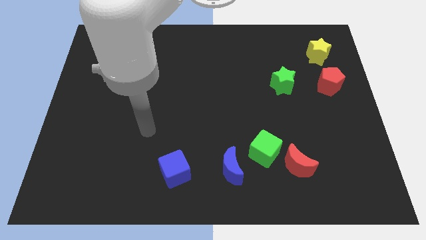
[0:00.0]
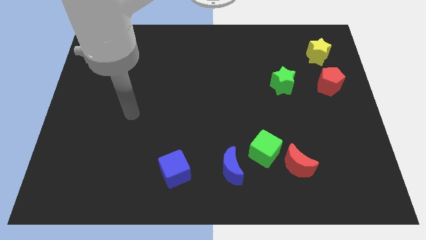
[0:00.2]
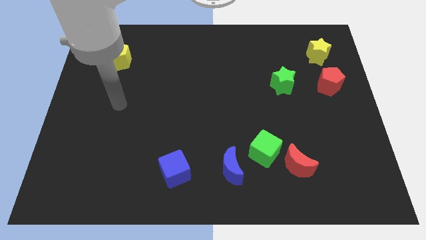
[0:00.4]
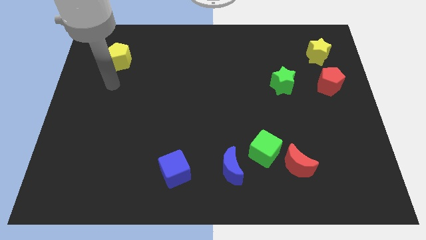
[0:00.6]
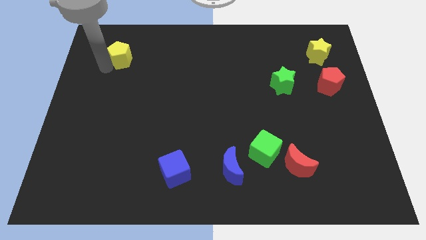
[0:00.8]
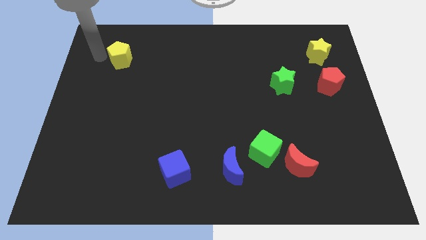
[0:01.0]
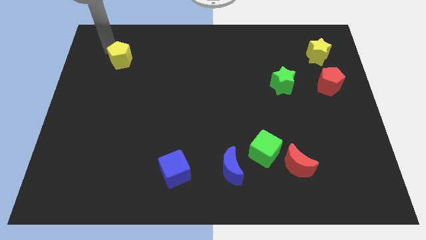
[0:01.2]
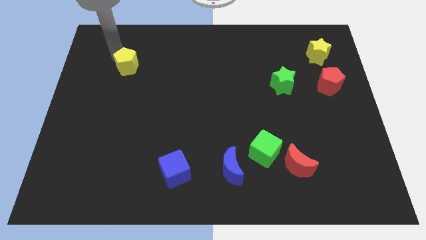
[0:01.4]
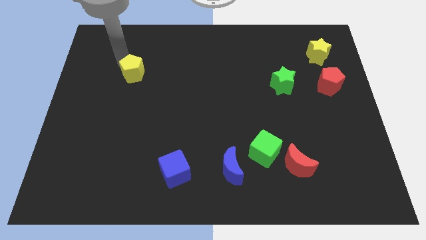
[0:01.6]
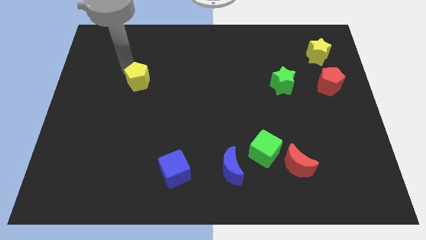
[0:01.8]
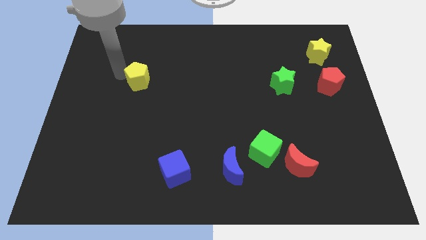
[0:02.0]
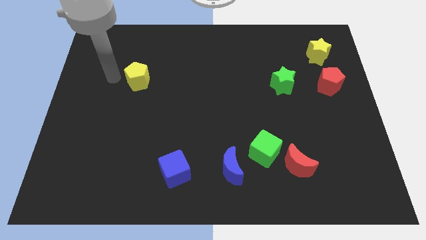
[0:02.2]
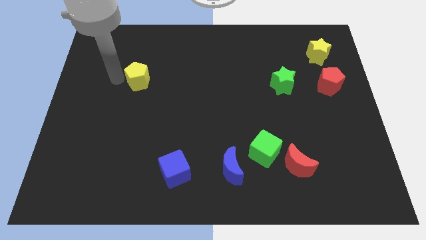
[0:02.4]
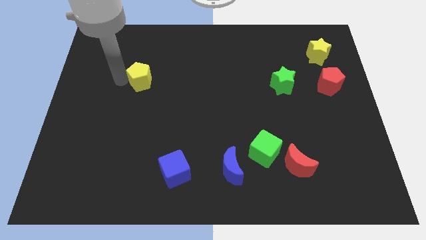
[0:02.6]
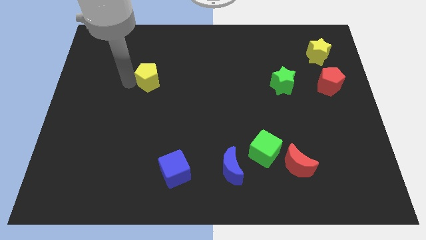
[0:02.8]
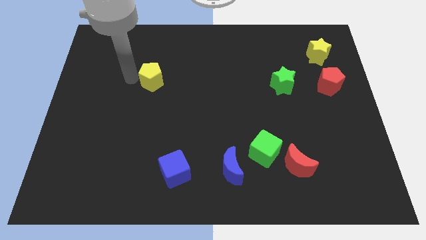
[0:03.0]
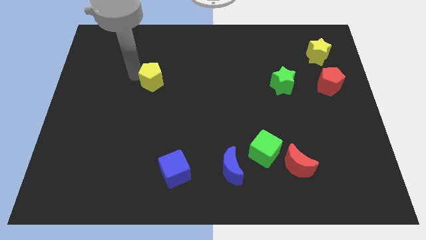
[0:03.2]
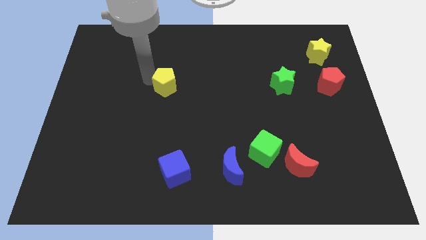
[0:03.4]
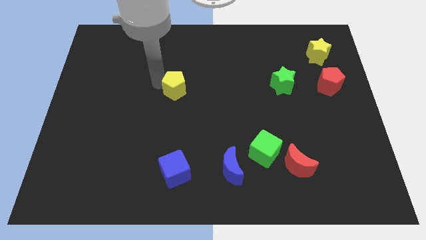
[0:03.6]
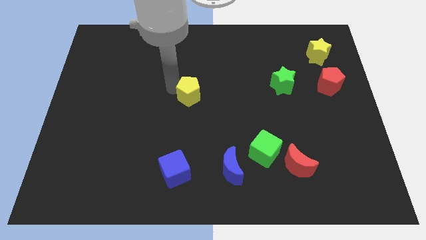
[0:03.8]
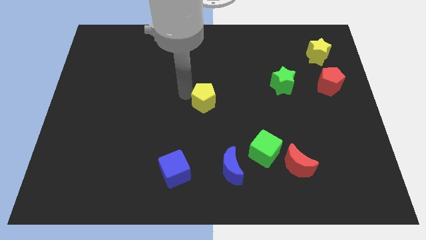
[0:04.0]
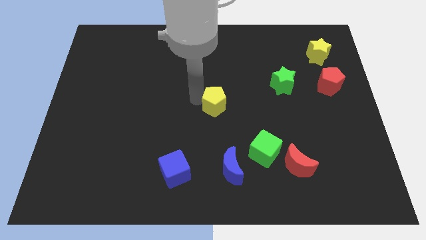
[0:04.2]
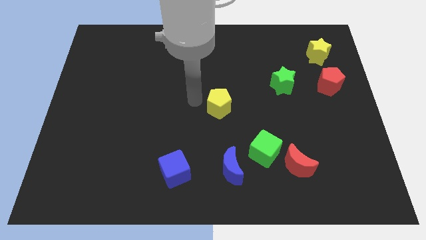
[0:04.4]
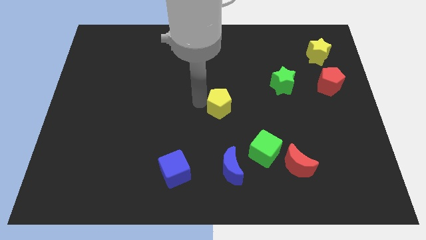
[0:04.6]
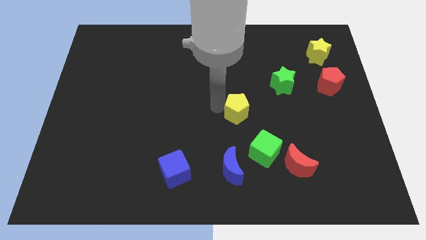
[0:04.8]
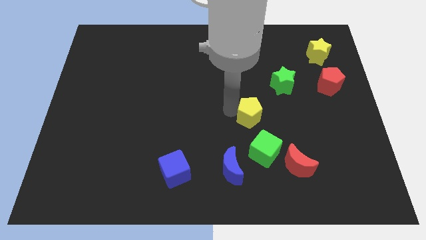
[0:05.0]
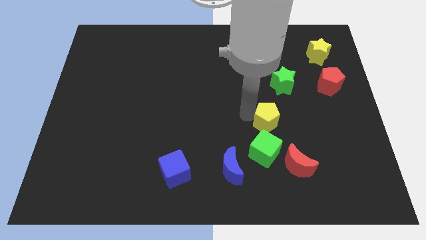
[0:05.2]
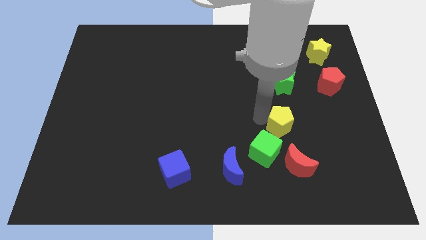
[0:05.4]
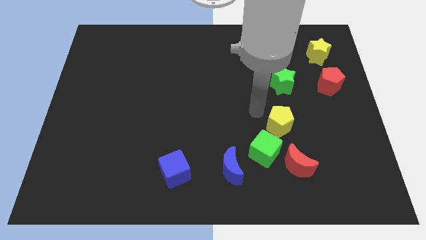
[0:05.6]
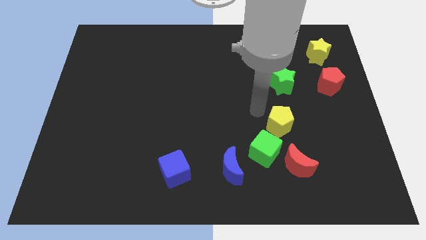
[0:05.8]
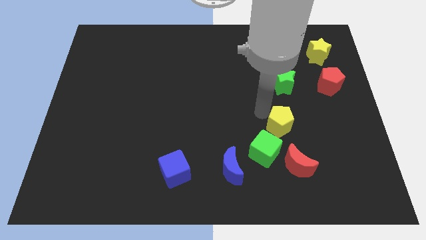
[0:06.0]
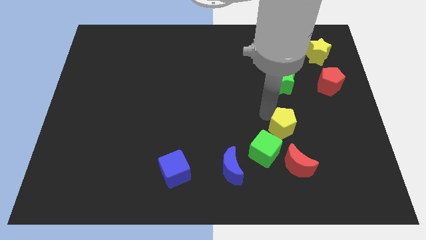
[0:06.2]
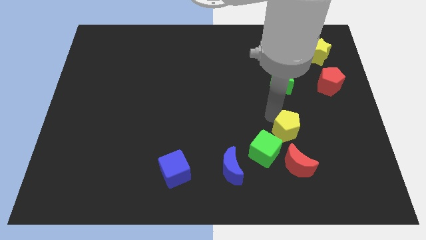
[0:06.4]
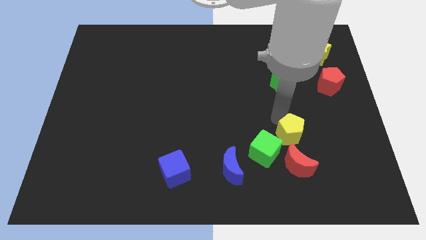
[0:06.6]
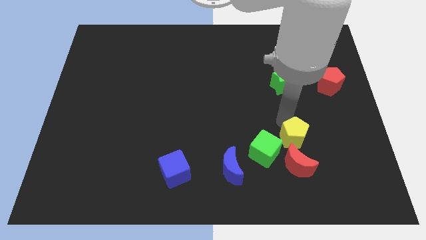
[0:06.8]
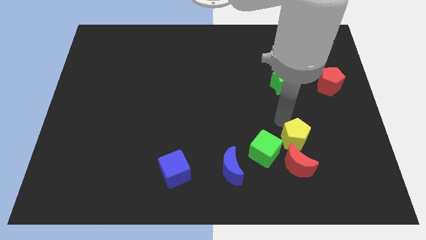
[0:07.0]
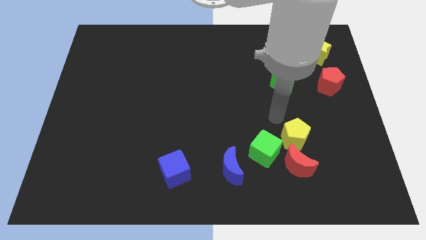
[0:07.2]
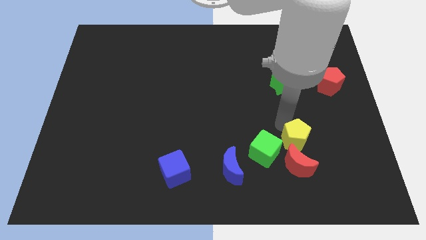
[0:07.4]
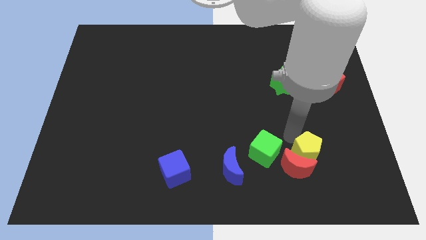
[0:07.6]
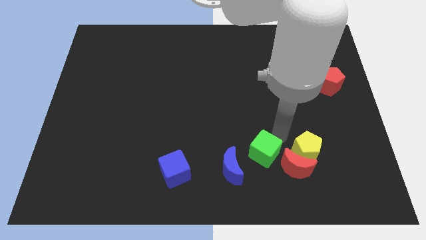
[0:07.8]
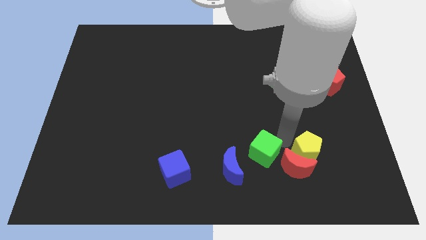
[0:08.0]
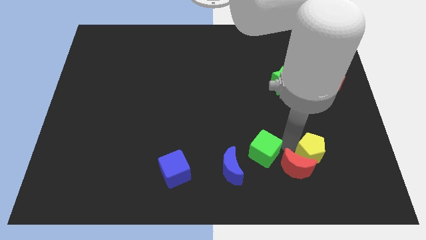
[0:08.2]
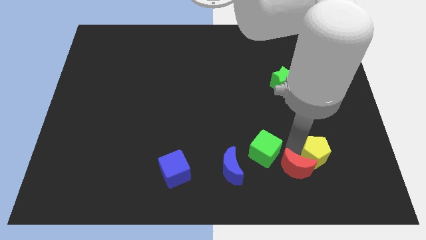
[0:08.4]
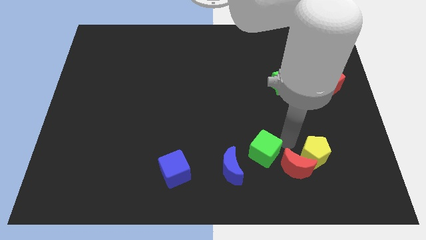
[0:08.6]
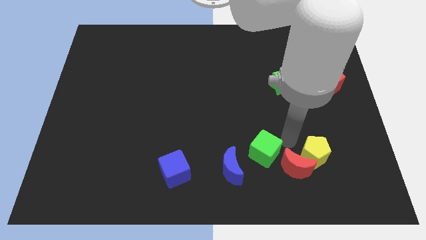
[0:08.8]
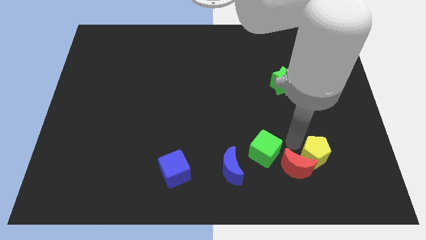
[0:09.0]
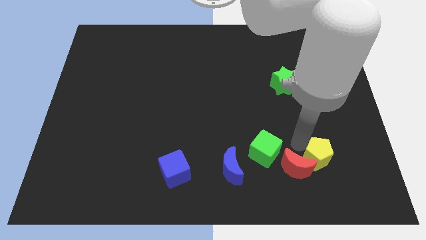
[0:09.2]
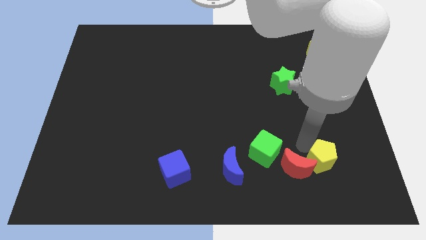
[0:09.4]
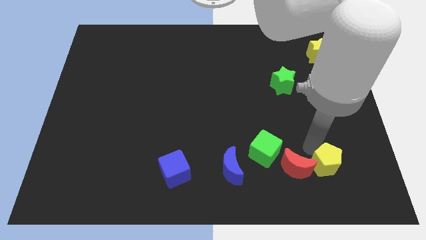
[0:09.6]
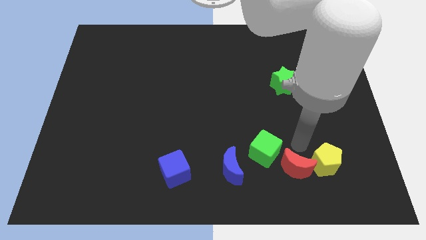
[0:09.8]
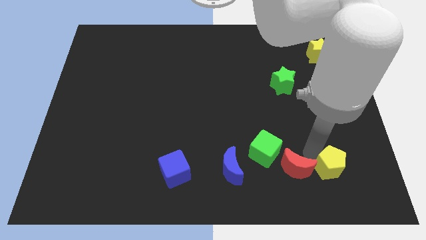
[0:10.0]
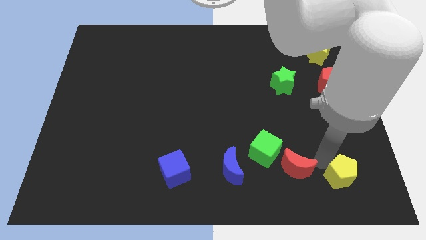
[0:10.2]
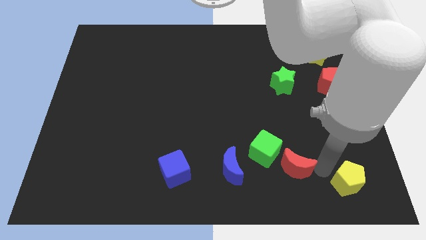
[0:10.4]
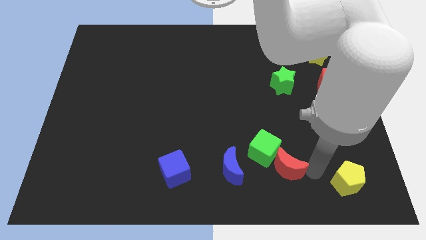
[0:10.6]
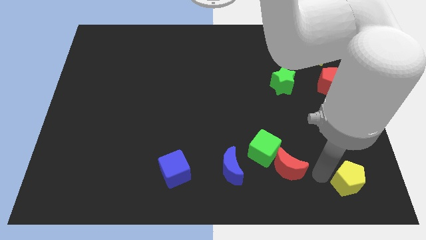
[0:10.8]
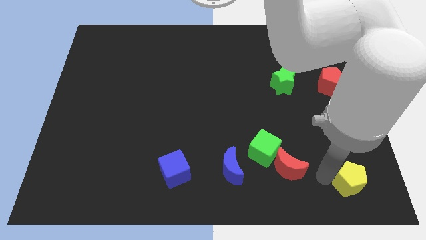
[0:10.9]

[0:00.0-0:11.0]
put the yellow pentagon to the lower right corner
